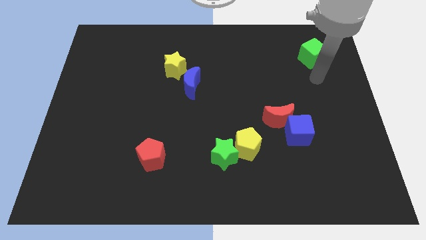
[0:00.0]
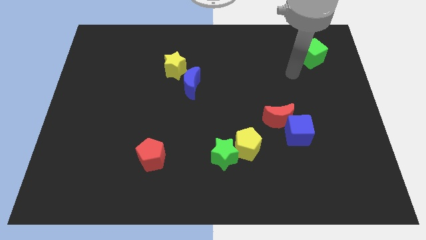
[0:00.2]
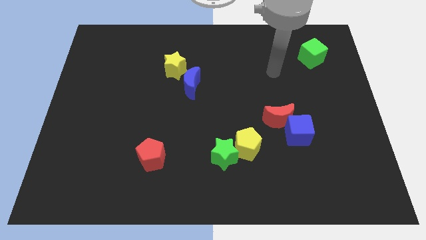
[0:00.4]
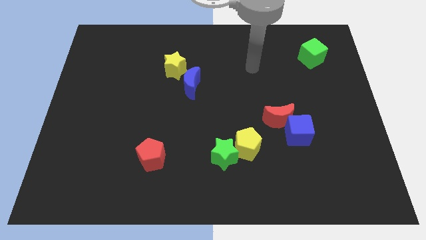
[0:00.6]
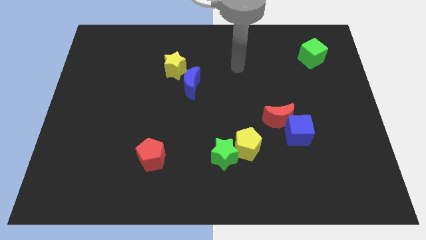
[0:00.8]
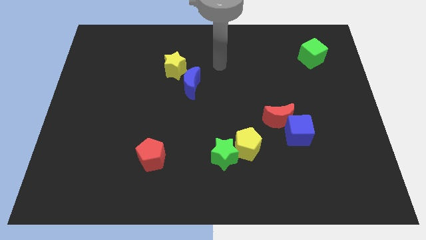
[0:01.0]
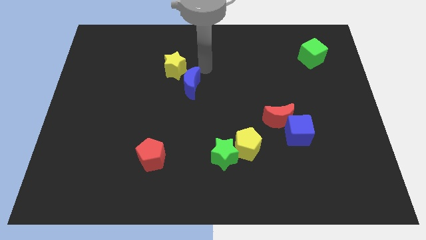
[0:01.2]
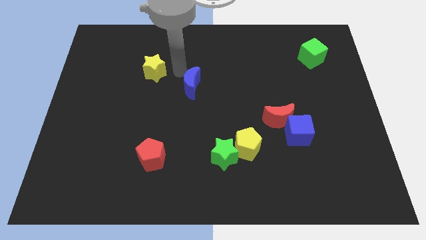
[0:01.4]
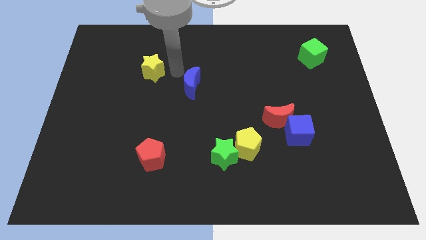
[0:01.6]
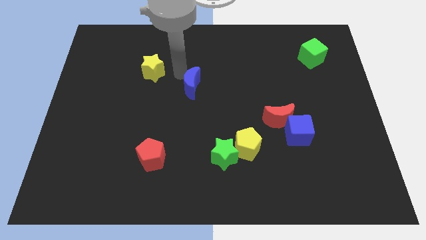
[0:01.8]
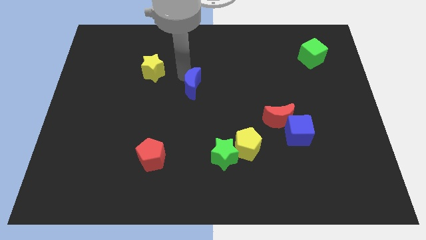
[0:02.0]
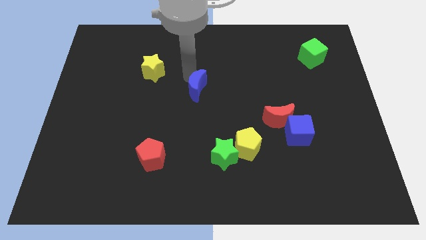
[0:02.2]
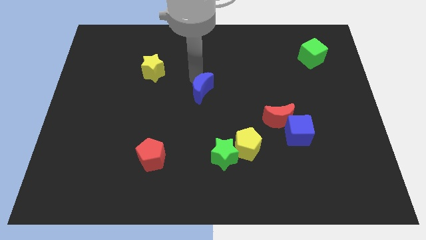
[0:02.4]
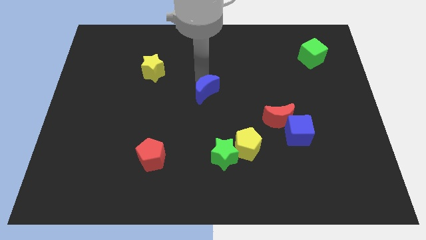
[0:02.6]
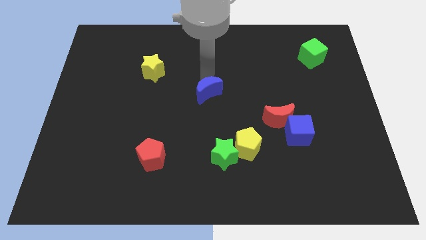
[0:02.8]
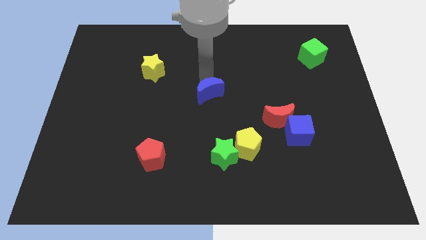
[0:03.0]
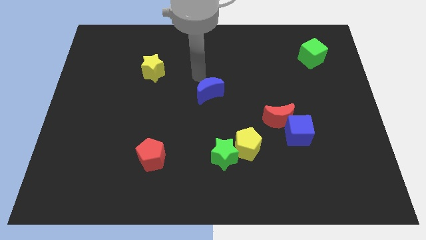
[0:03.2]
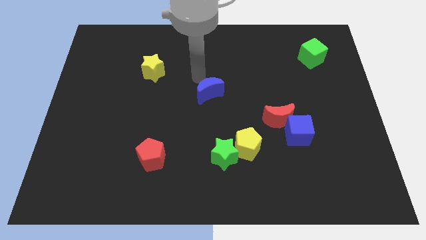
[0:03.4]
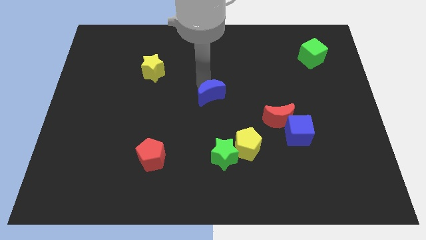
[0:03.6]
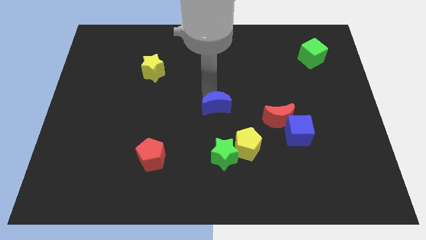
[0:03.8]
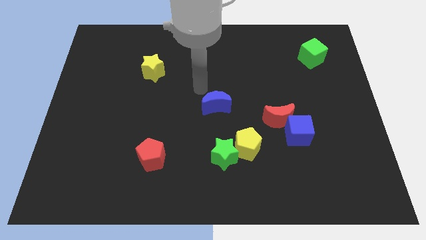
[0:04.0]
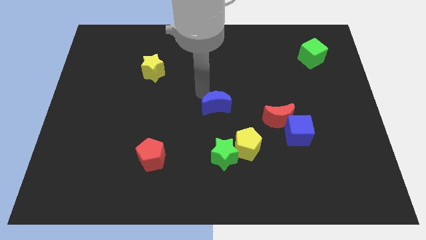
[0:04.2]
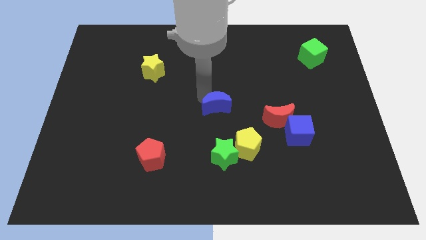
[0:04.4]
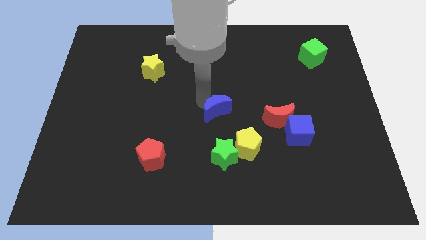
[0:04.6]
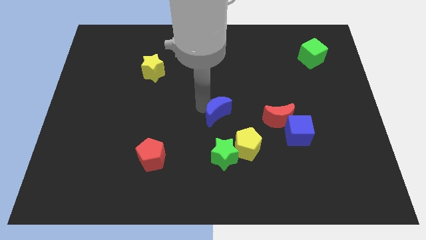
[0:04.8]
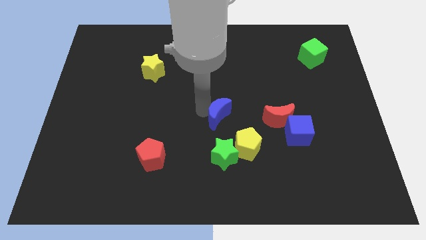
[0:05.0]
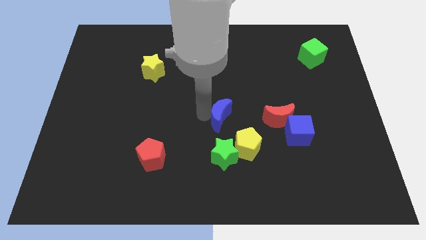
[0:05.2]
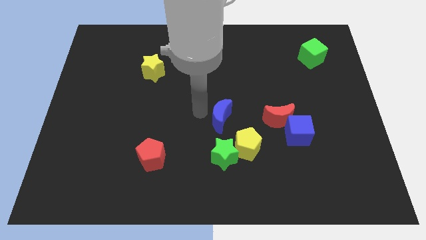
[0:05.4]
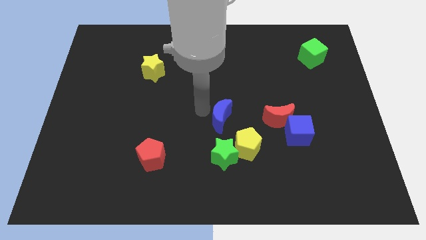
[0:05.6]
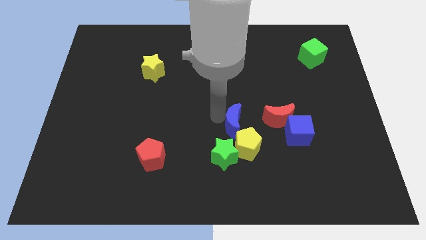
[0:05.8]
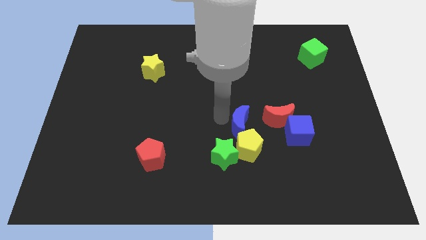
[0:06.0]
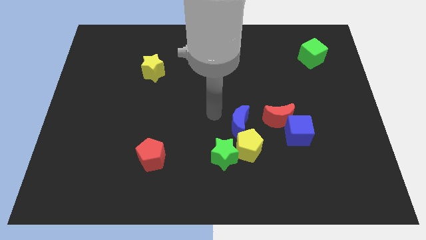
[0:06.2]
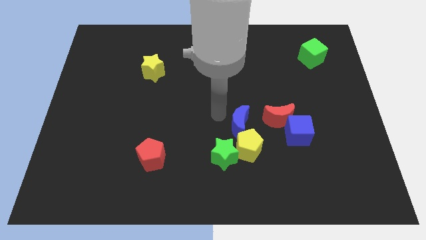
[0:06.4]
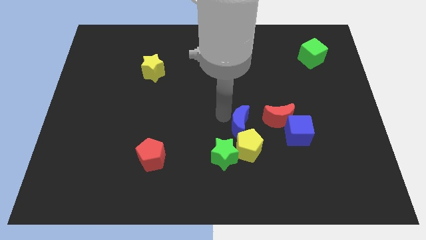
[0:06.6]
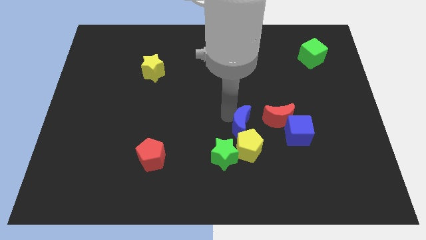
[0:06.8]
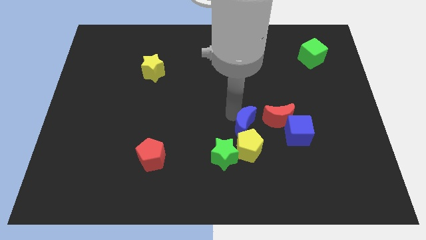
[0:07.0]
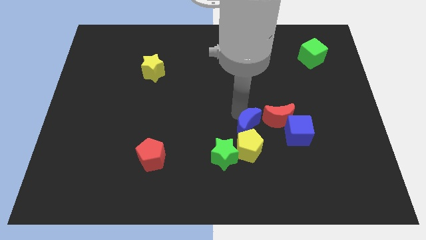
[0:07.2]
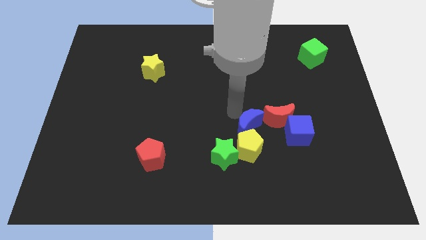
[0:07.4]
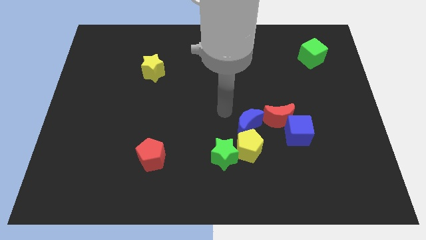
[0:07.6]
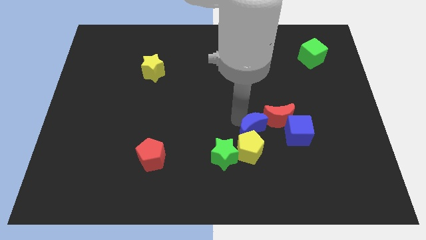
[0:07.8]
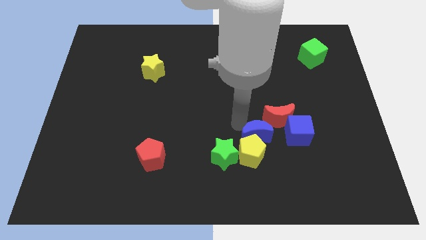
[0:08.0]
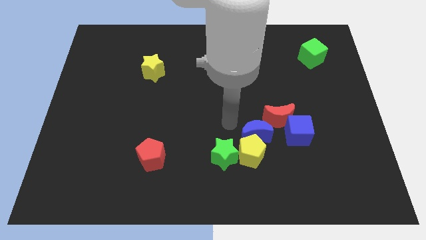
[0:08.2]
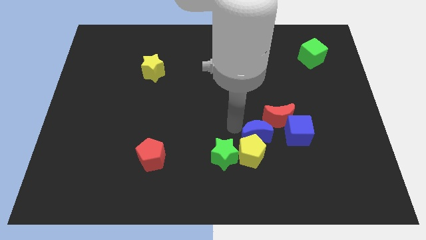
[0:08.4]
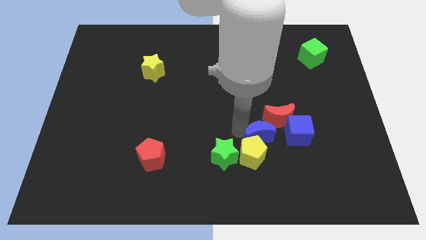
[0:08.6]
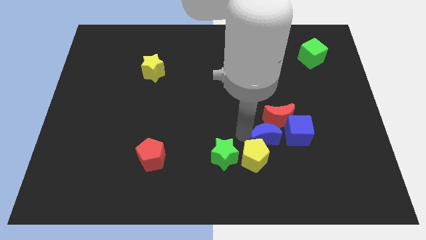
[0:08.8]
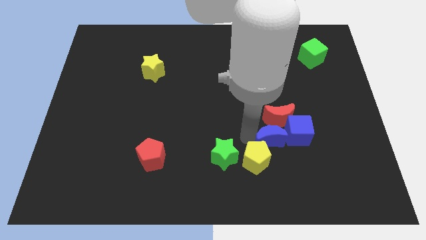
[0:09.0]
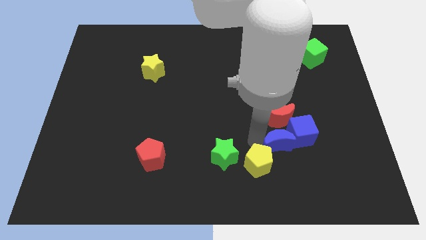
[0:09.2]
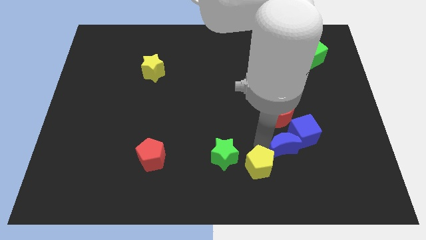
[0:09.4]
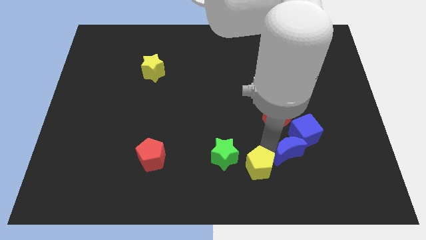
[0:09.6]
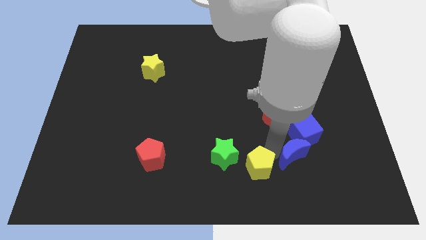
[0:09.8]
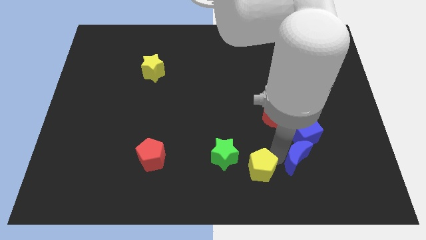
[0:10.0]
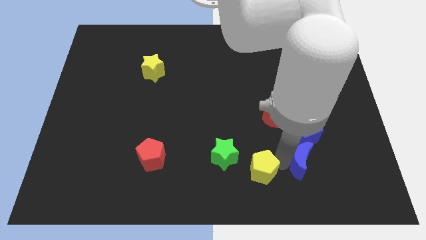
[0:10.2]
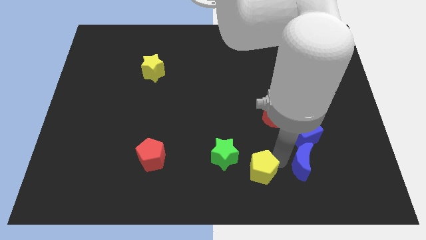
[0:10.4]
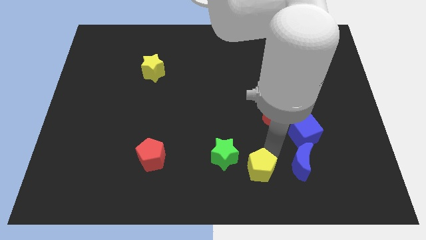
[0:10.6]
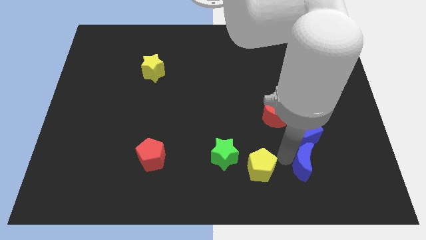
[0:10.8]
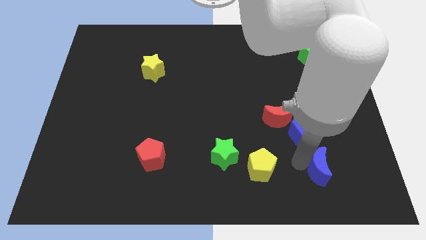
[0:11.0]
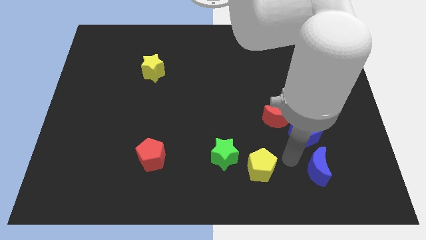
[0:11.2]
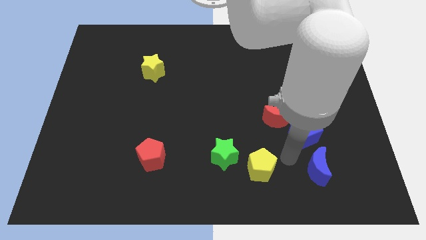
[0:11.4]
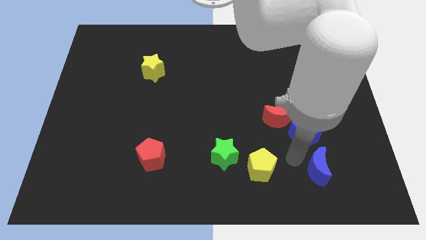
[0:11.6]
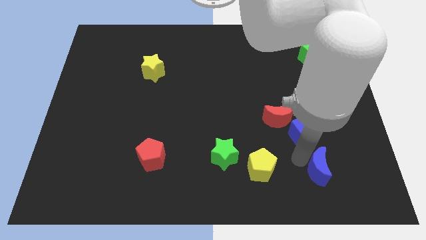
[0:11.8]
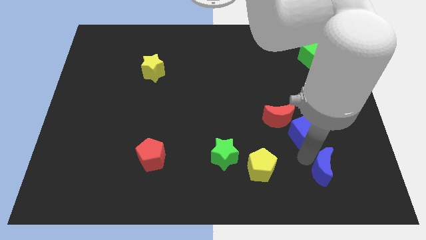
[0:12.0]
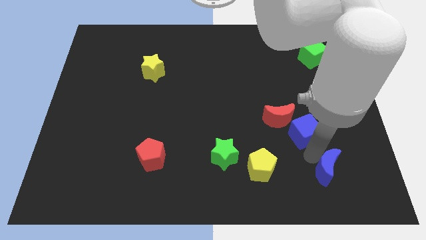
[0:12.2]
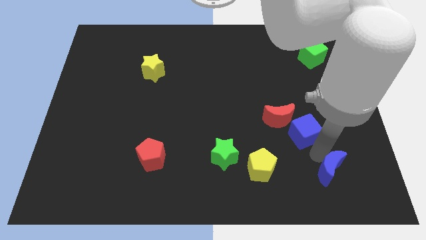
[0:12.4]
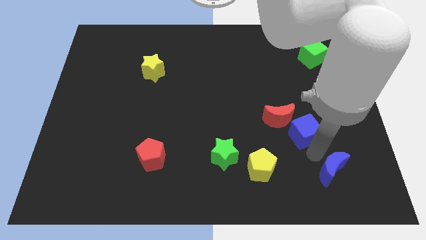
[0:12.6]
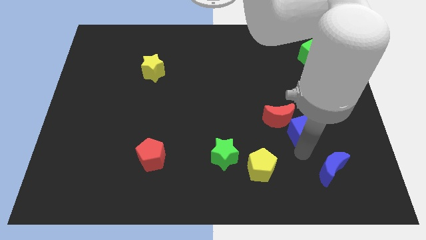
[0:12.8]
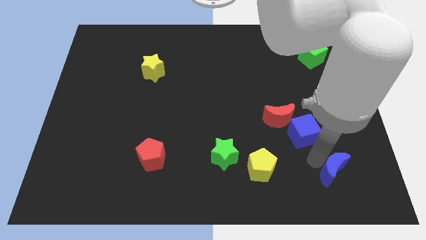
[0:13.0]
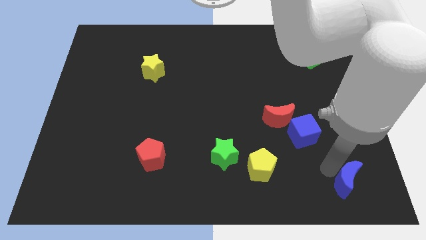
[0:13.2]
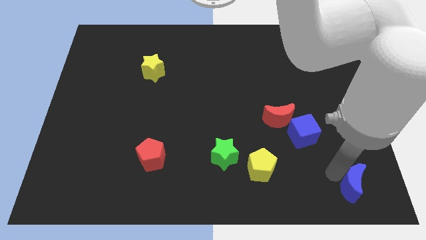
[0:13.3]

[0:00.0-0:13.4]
put the blue moon to the lower right corner
